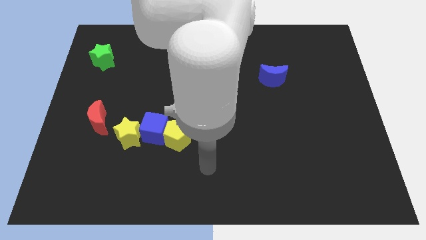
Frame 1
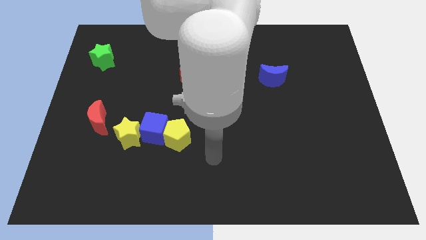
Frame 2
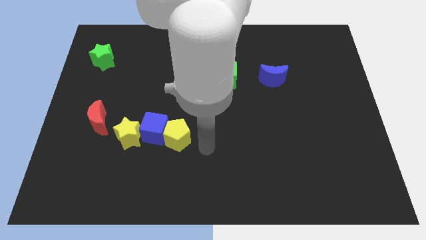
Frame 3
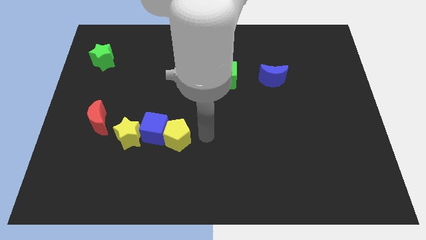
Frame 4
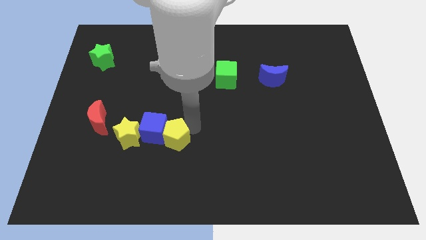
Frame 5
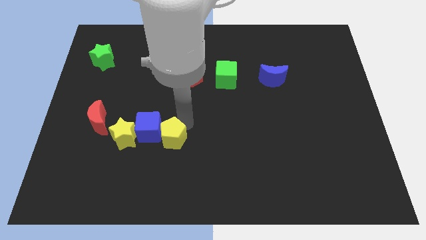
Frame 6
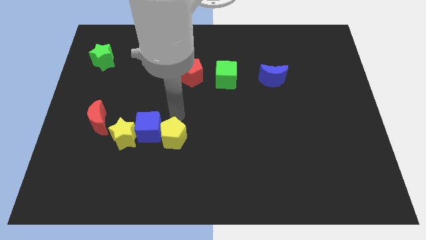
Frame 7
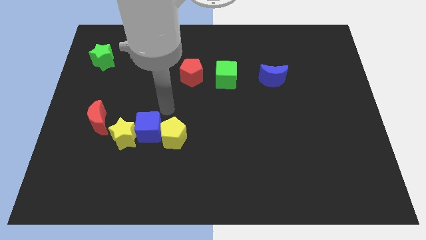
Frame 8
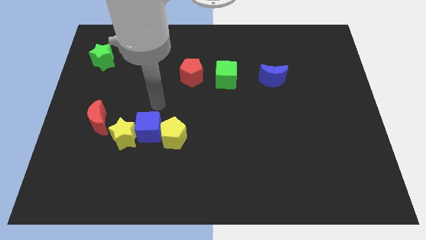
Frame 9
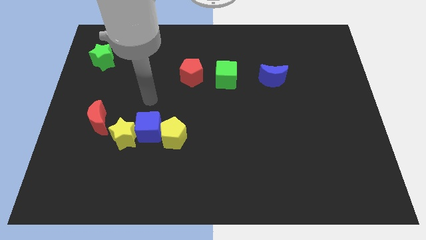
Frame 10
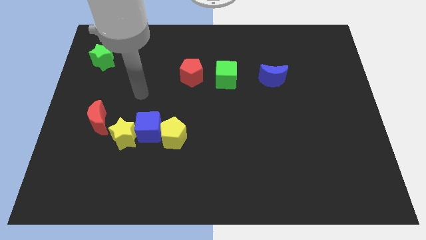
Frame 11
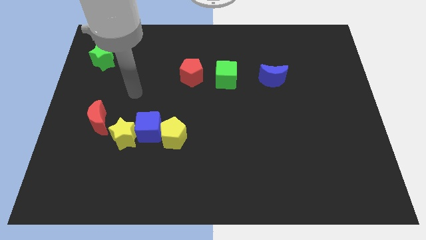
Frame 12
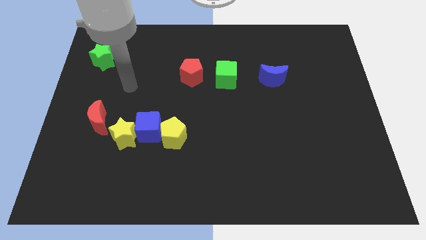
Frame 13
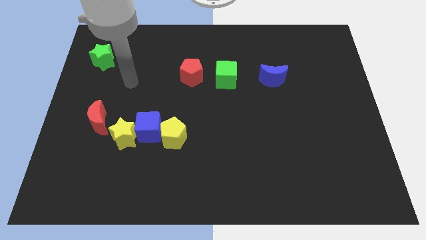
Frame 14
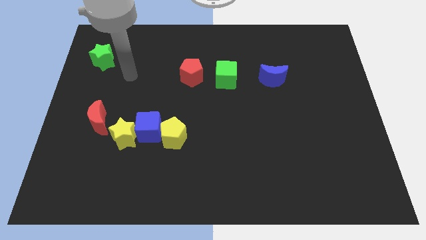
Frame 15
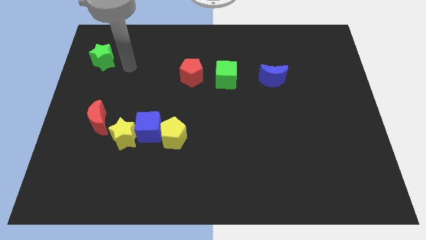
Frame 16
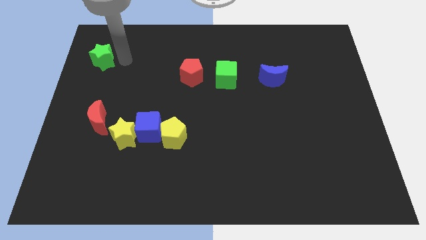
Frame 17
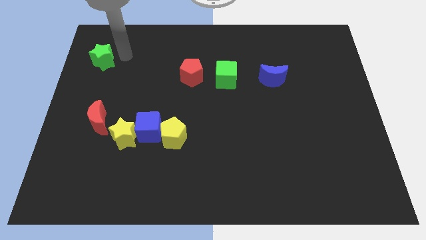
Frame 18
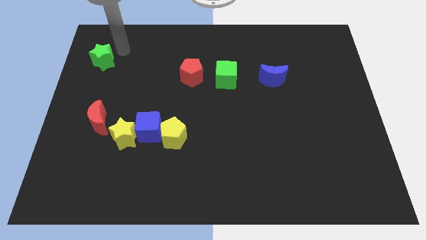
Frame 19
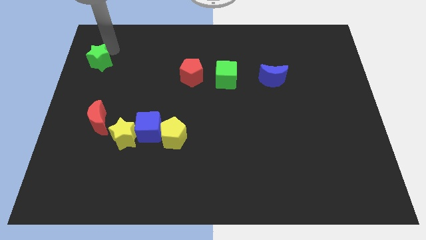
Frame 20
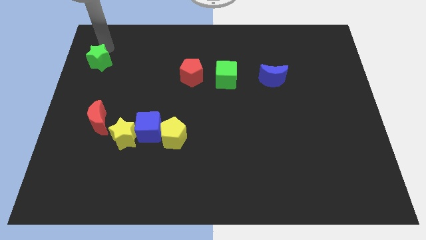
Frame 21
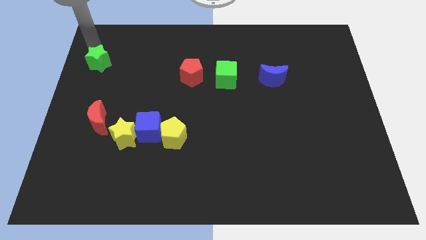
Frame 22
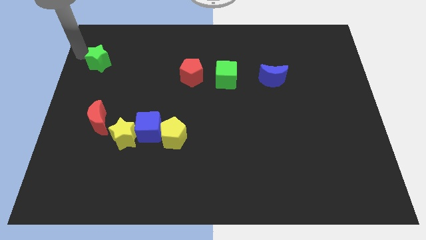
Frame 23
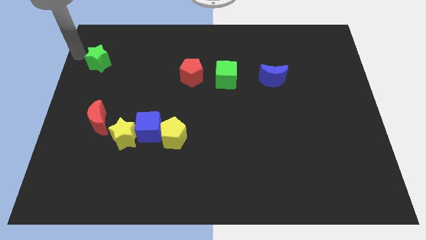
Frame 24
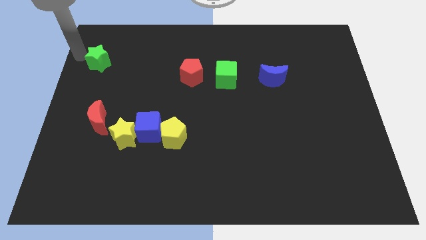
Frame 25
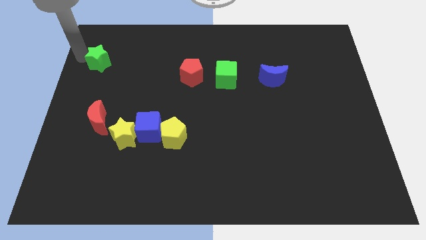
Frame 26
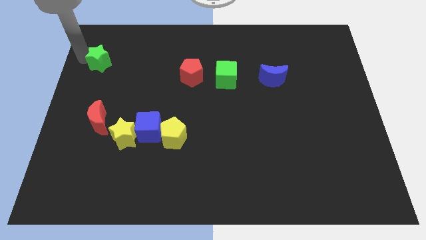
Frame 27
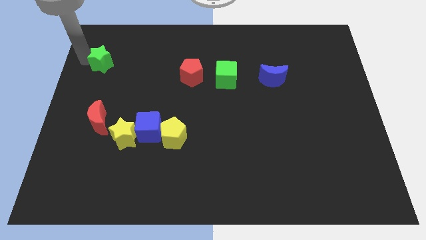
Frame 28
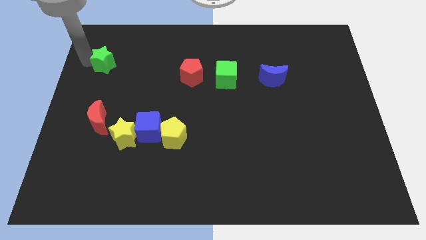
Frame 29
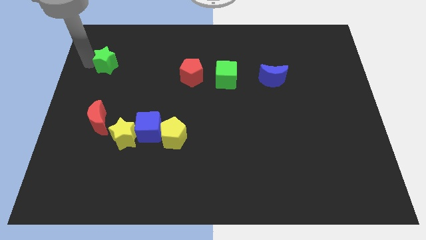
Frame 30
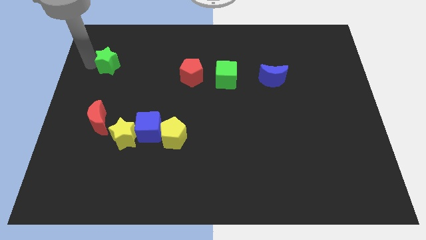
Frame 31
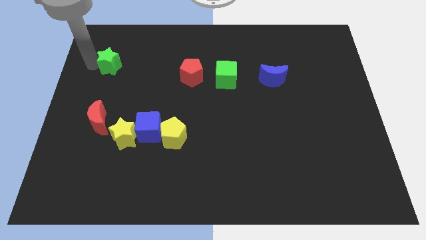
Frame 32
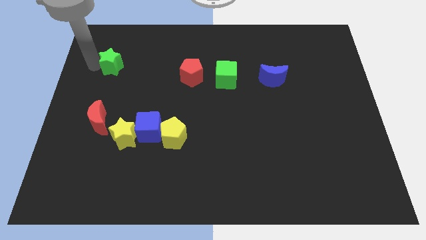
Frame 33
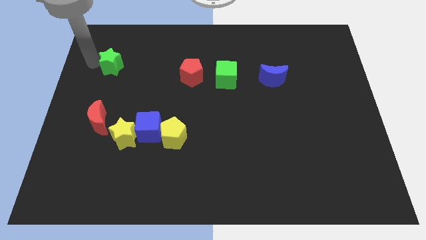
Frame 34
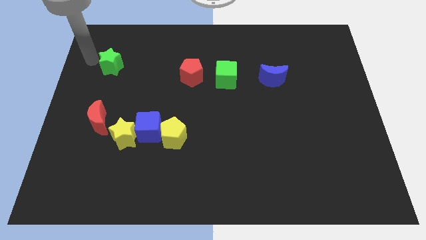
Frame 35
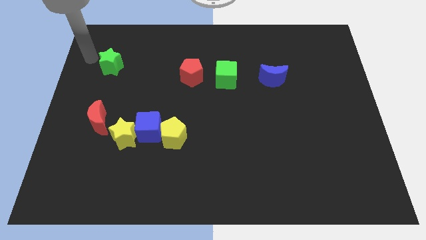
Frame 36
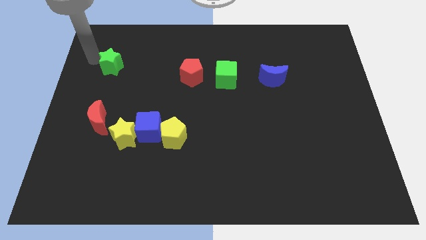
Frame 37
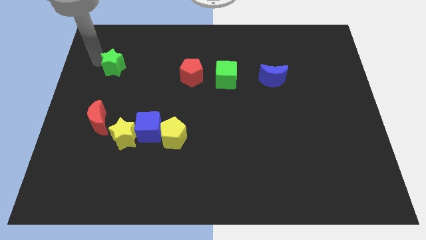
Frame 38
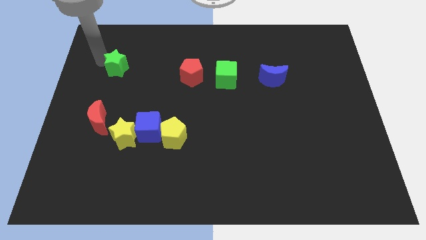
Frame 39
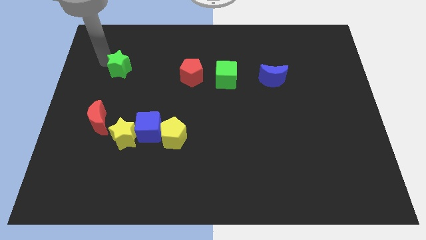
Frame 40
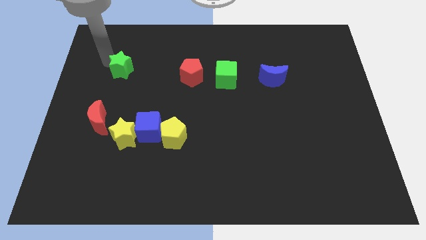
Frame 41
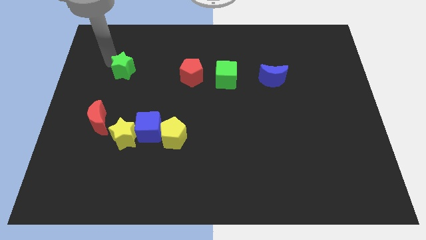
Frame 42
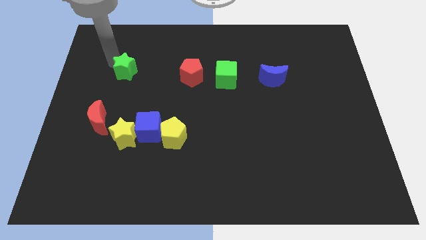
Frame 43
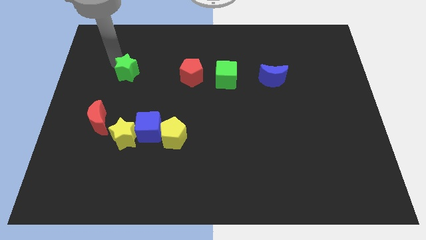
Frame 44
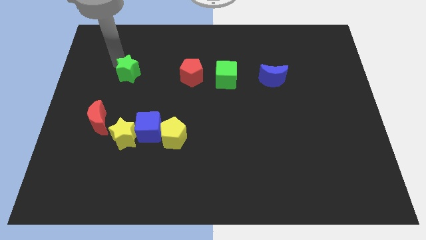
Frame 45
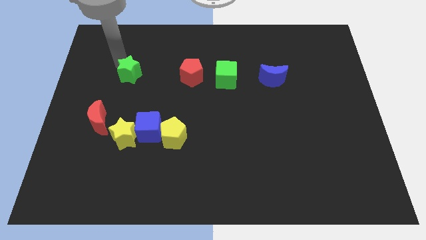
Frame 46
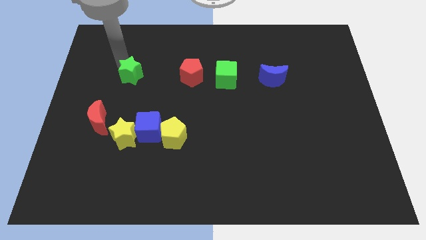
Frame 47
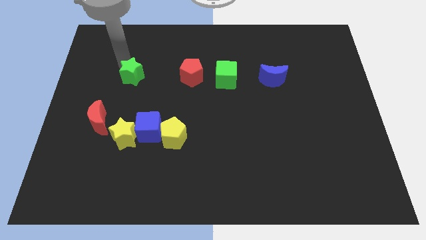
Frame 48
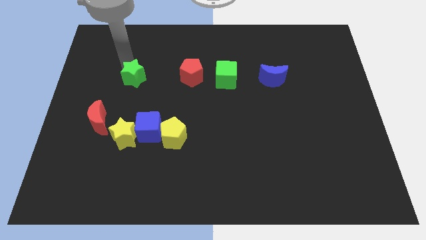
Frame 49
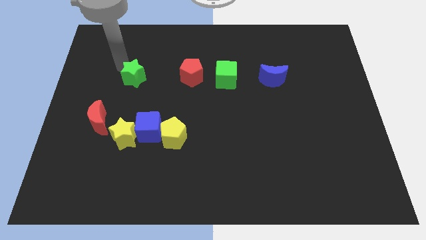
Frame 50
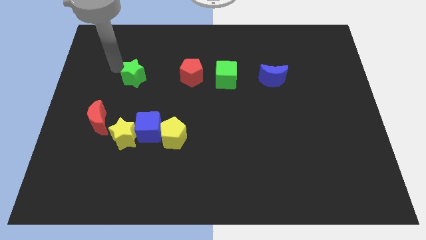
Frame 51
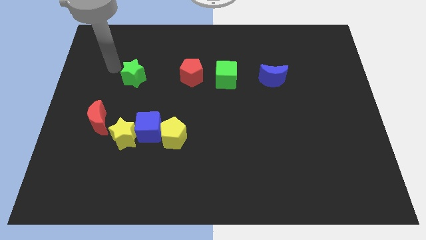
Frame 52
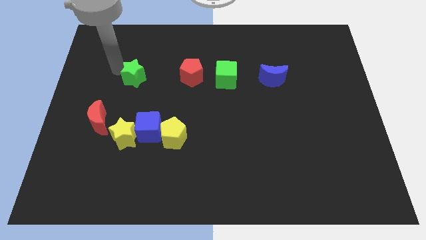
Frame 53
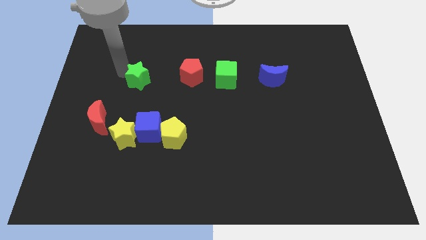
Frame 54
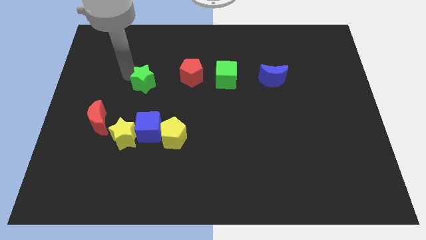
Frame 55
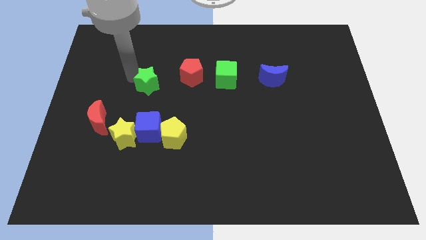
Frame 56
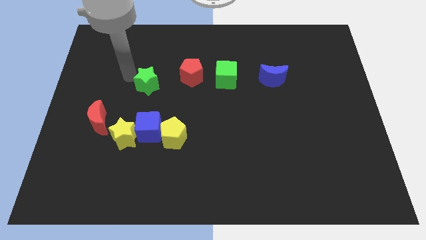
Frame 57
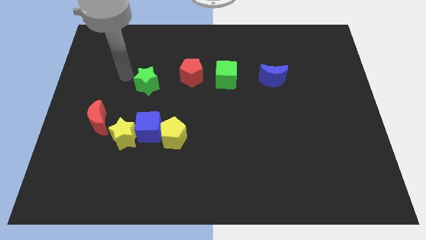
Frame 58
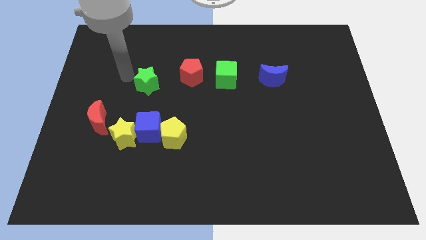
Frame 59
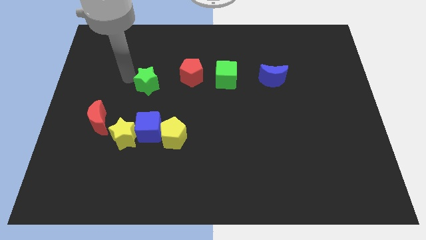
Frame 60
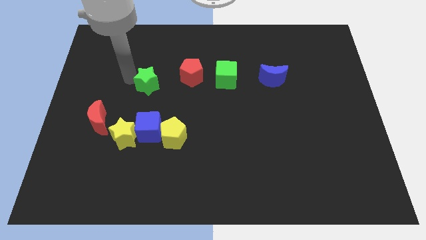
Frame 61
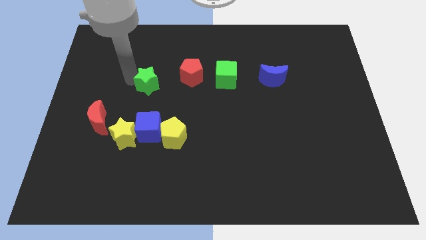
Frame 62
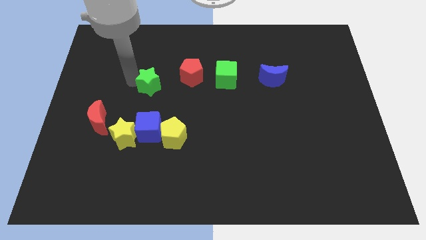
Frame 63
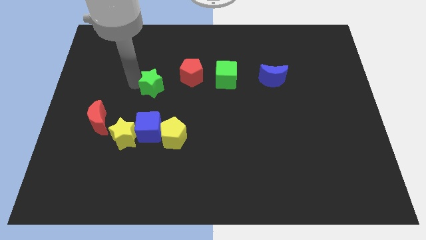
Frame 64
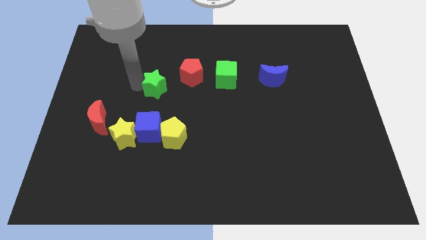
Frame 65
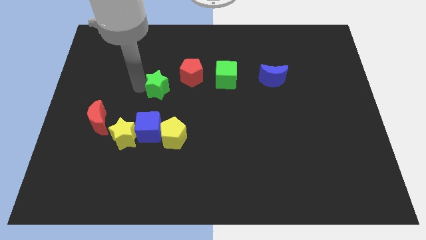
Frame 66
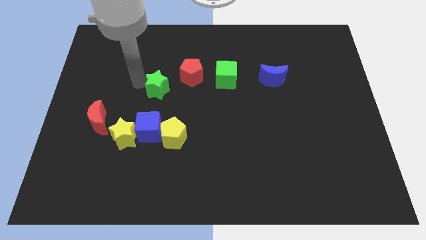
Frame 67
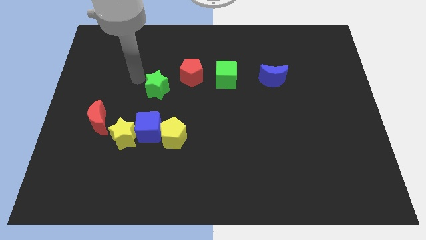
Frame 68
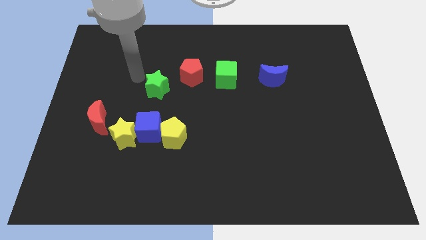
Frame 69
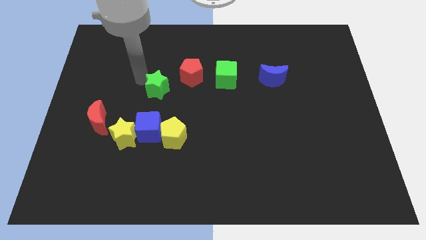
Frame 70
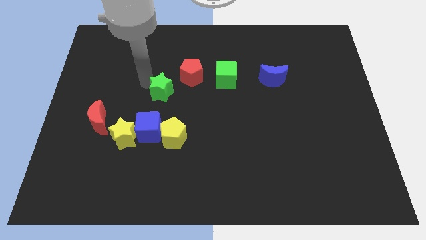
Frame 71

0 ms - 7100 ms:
slide the green star above the yellow pentagon
